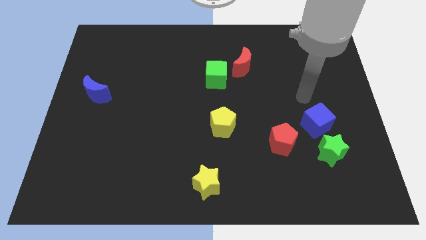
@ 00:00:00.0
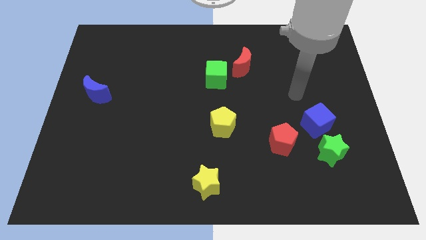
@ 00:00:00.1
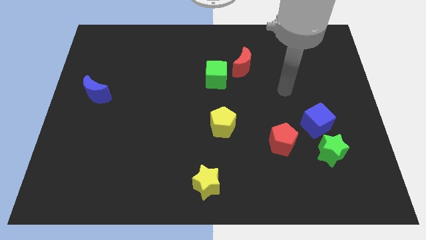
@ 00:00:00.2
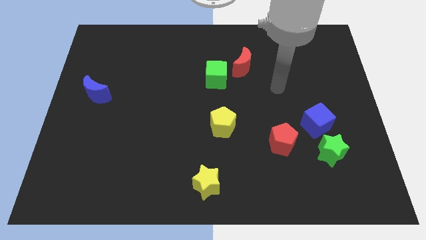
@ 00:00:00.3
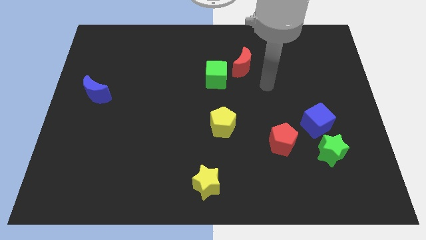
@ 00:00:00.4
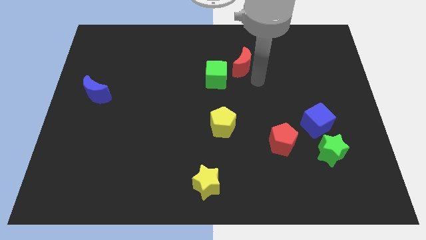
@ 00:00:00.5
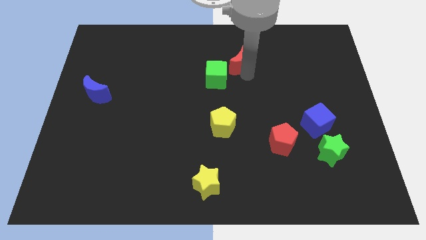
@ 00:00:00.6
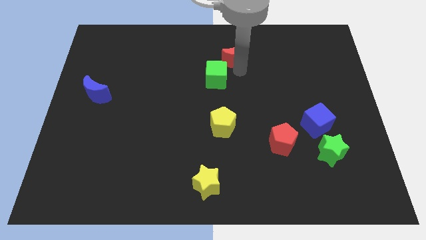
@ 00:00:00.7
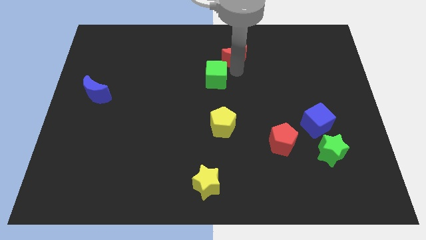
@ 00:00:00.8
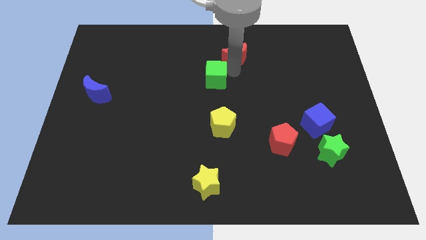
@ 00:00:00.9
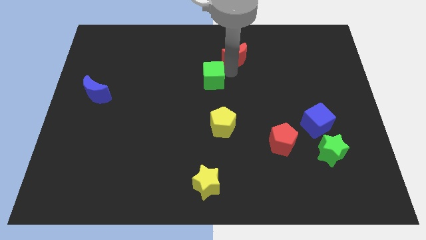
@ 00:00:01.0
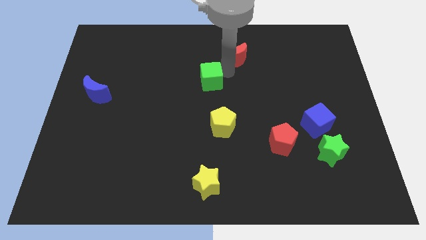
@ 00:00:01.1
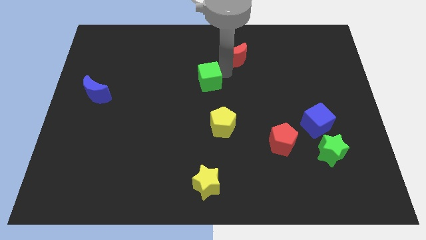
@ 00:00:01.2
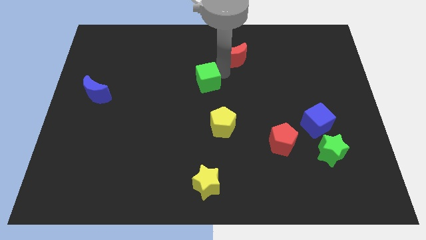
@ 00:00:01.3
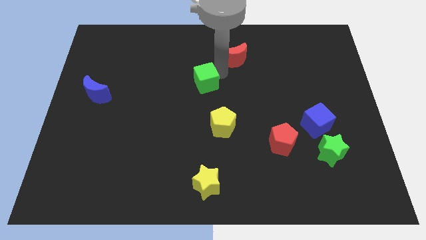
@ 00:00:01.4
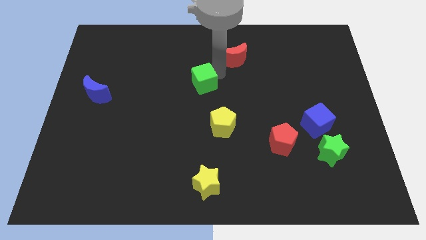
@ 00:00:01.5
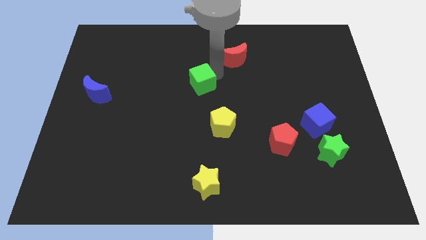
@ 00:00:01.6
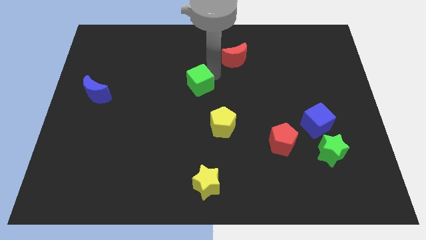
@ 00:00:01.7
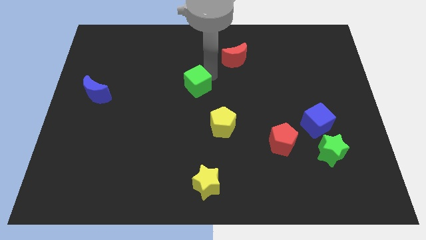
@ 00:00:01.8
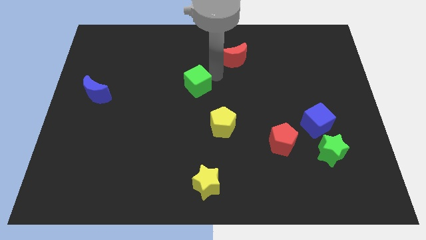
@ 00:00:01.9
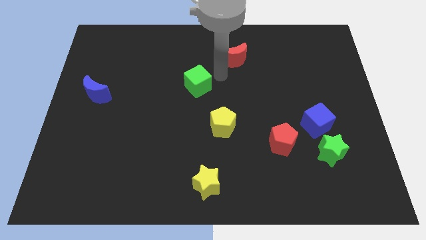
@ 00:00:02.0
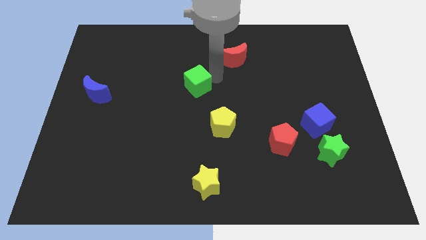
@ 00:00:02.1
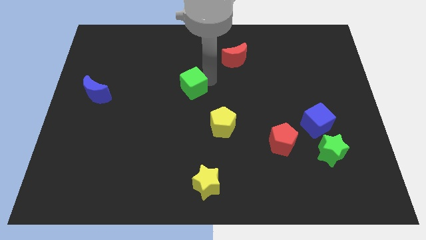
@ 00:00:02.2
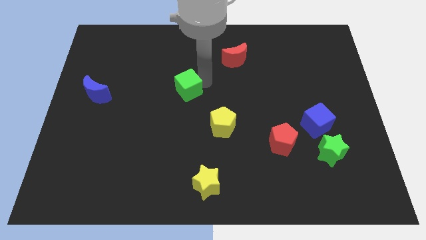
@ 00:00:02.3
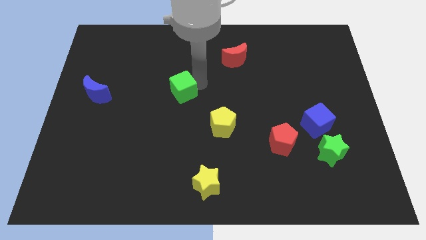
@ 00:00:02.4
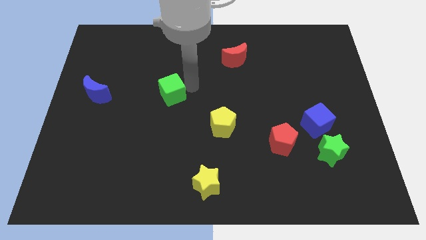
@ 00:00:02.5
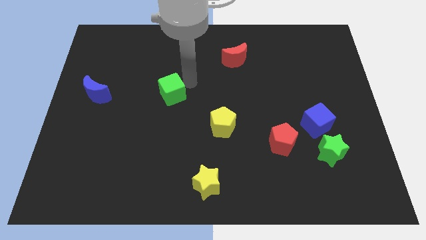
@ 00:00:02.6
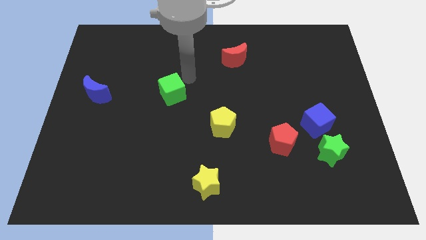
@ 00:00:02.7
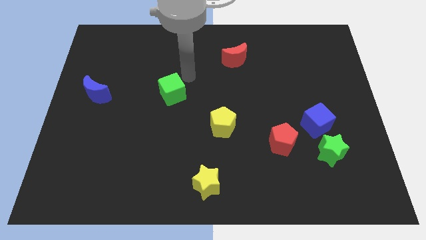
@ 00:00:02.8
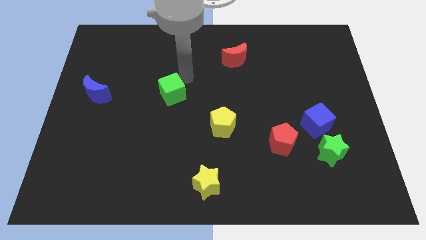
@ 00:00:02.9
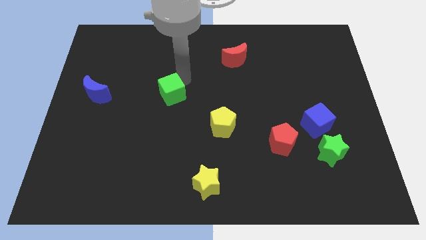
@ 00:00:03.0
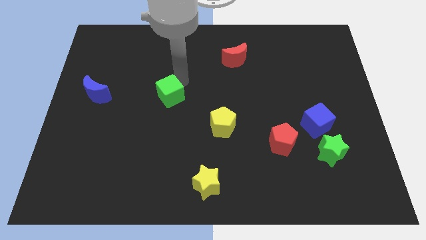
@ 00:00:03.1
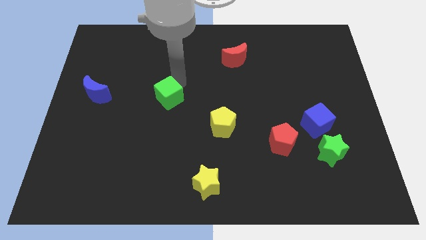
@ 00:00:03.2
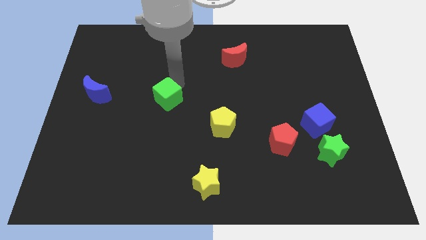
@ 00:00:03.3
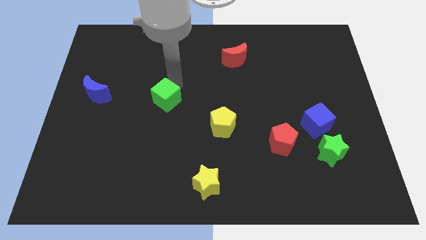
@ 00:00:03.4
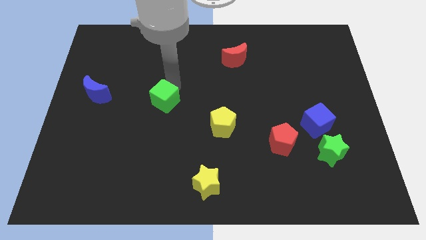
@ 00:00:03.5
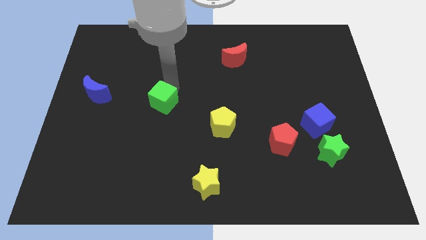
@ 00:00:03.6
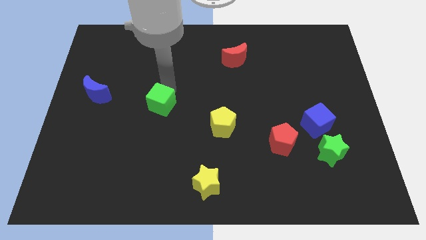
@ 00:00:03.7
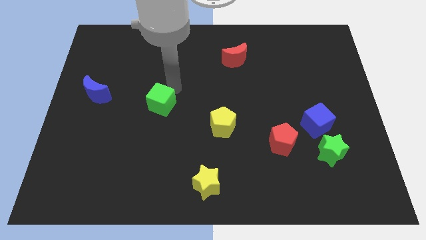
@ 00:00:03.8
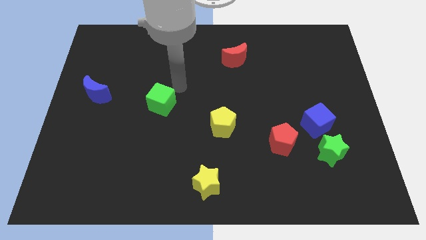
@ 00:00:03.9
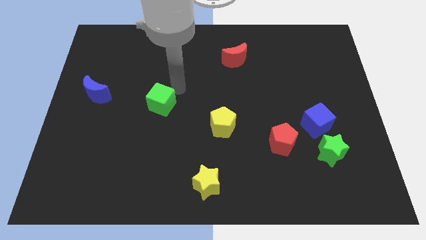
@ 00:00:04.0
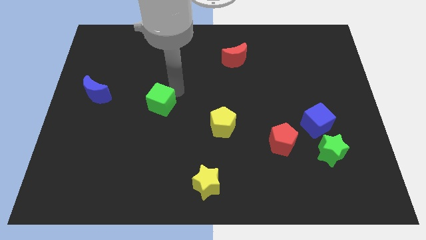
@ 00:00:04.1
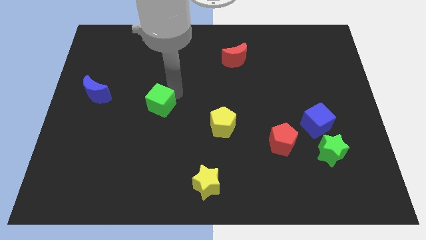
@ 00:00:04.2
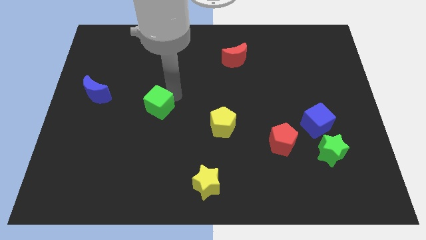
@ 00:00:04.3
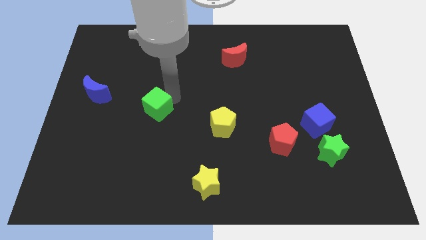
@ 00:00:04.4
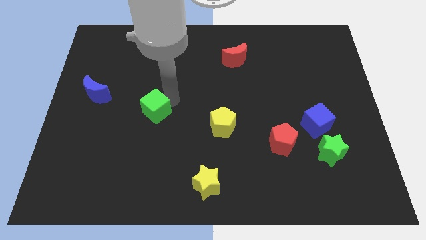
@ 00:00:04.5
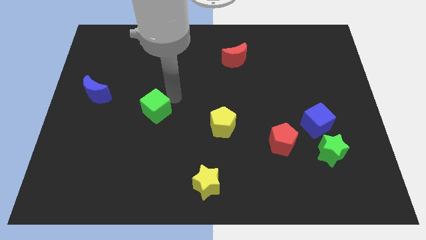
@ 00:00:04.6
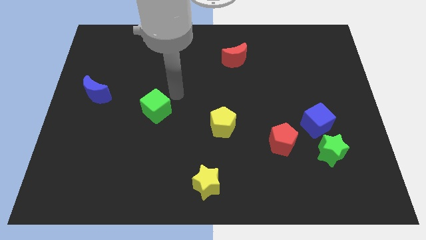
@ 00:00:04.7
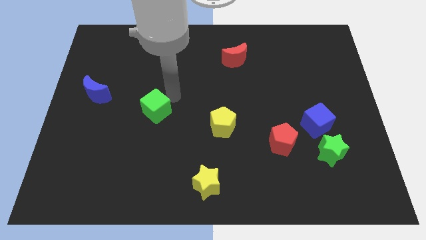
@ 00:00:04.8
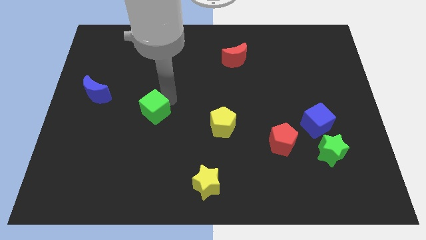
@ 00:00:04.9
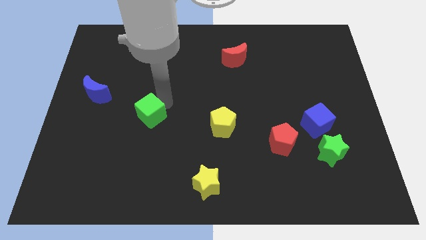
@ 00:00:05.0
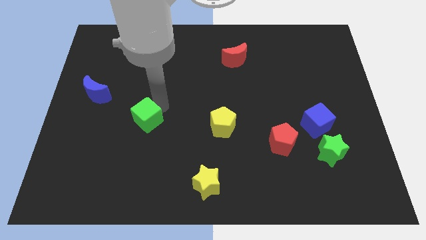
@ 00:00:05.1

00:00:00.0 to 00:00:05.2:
slide the green cube downwards and to the left diagonally

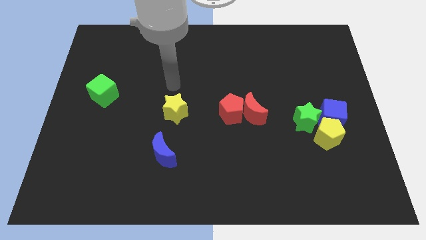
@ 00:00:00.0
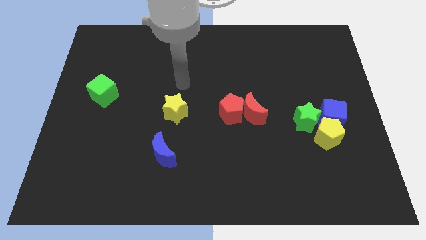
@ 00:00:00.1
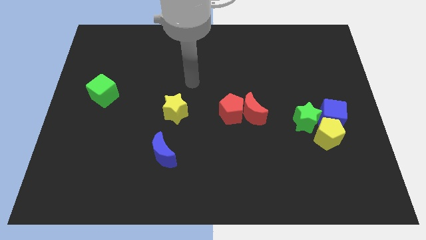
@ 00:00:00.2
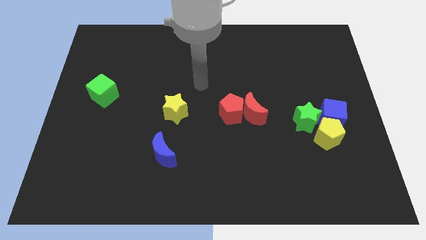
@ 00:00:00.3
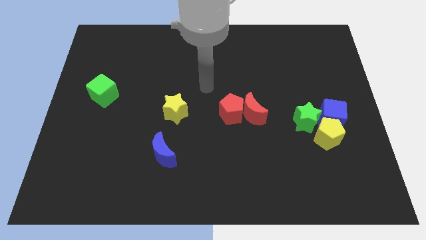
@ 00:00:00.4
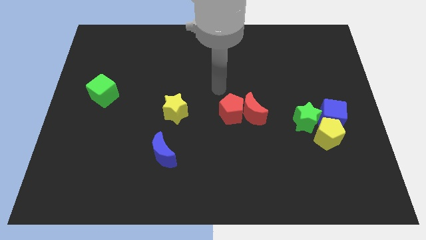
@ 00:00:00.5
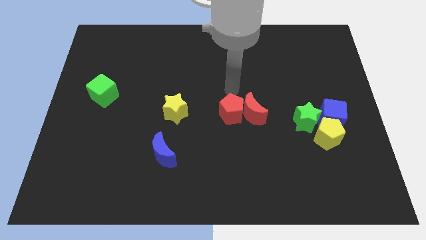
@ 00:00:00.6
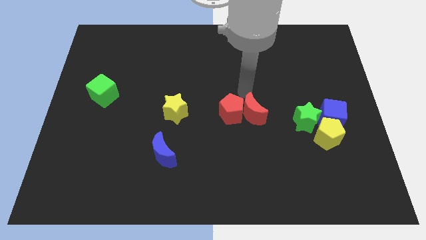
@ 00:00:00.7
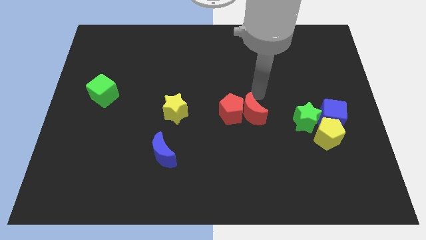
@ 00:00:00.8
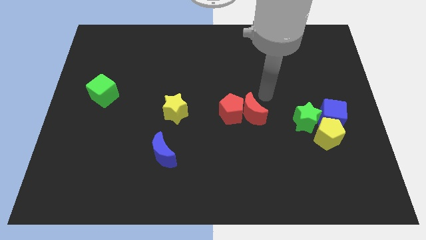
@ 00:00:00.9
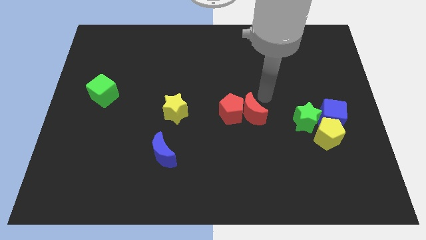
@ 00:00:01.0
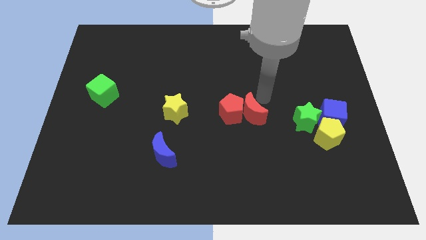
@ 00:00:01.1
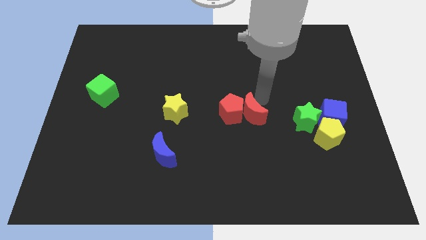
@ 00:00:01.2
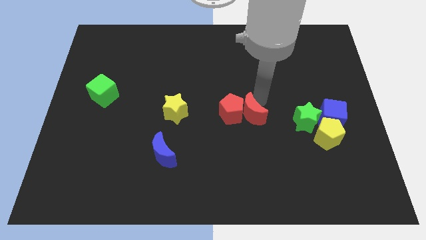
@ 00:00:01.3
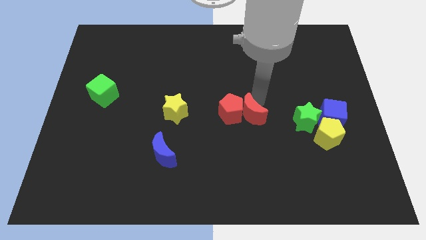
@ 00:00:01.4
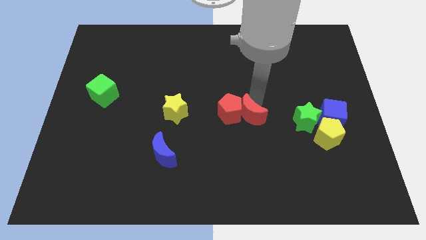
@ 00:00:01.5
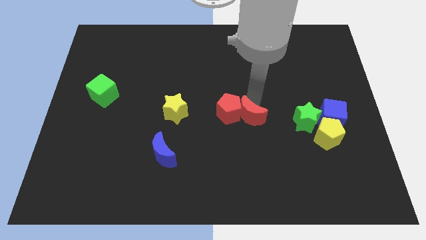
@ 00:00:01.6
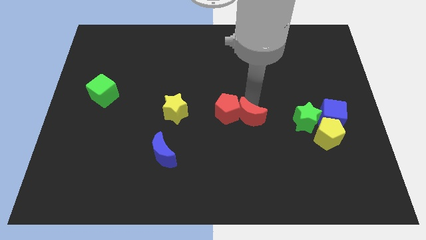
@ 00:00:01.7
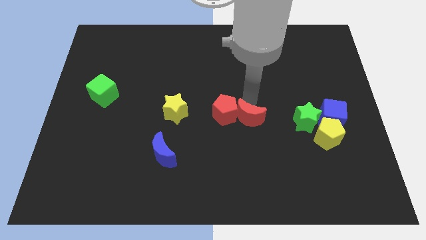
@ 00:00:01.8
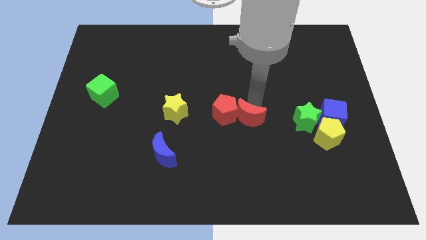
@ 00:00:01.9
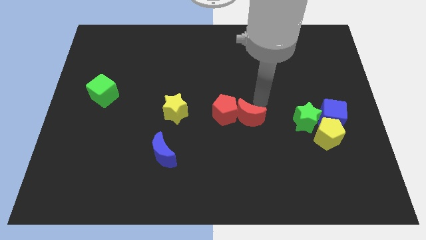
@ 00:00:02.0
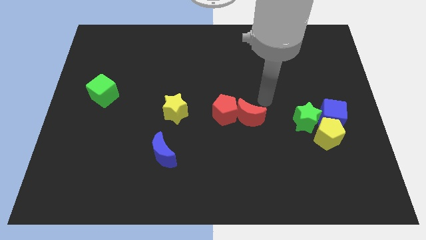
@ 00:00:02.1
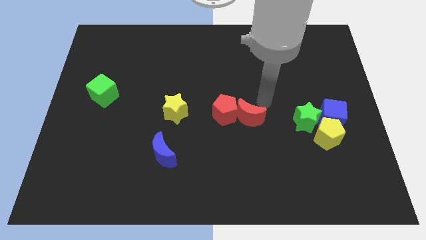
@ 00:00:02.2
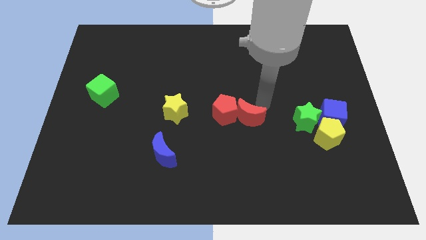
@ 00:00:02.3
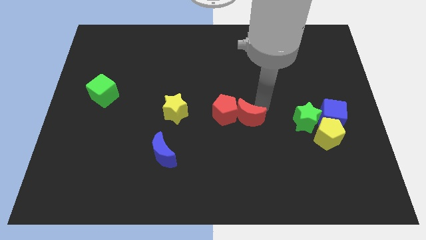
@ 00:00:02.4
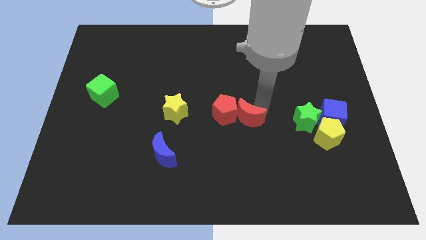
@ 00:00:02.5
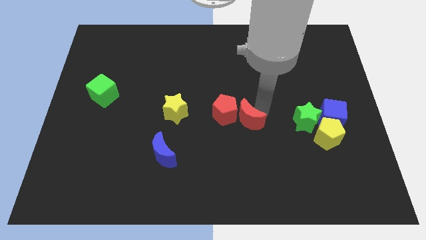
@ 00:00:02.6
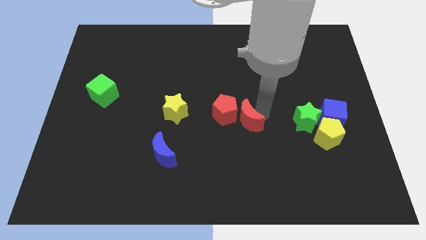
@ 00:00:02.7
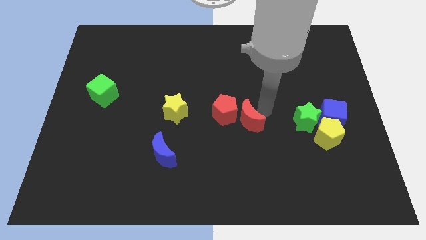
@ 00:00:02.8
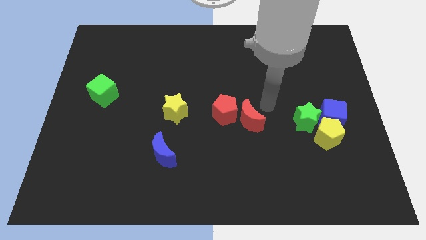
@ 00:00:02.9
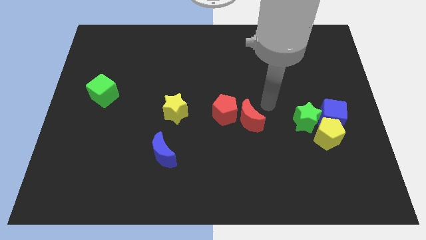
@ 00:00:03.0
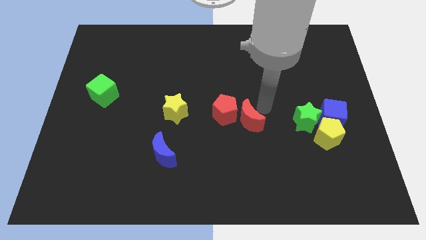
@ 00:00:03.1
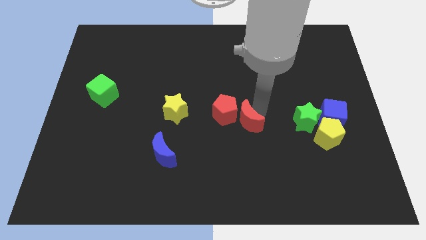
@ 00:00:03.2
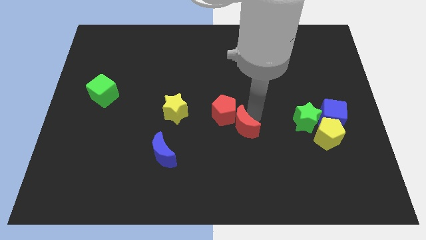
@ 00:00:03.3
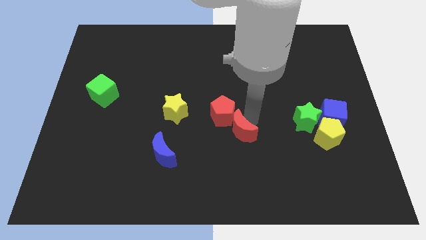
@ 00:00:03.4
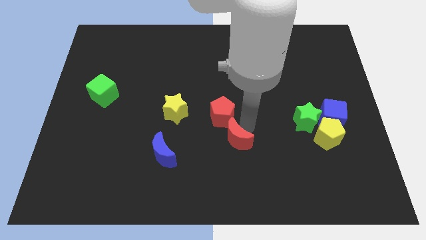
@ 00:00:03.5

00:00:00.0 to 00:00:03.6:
slightly slide the red moon diagonally downwards and left
